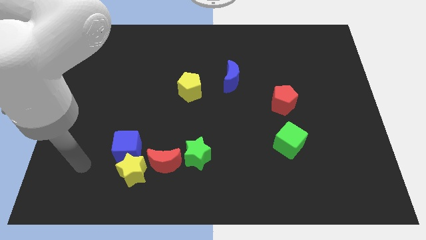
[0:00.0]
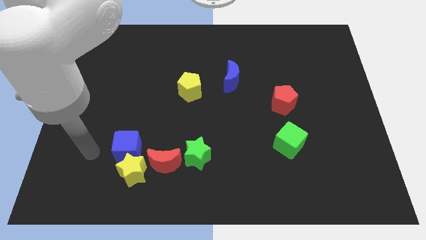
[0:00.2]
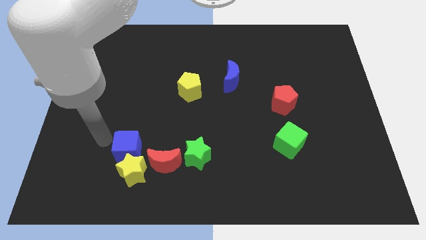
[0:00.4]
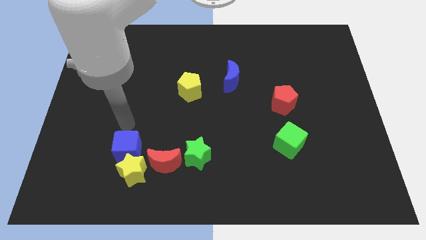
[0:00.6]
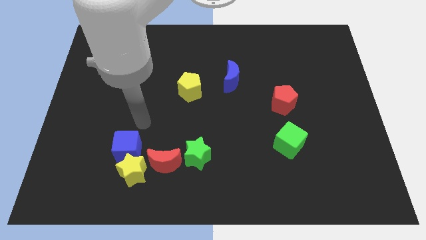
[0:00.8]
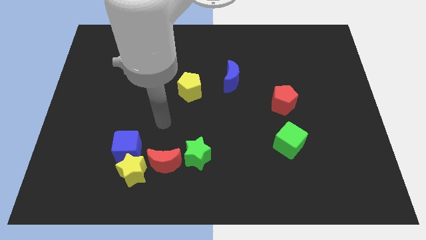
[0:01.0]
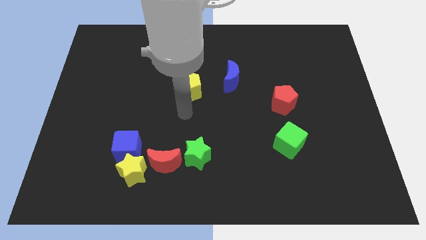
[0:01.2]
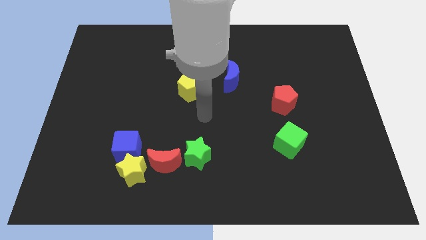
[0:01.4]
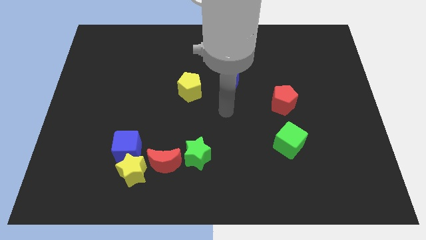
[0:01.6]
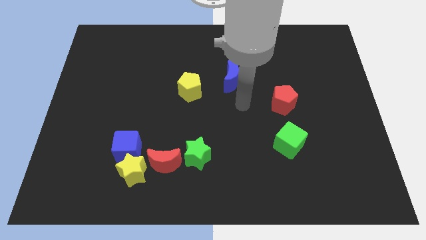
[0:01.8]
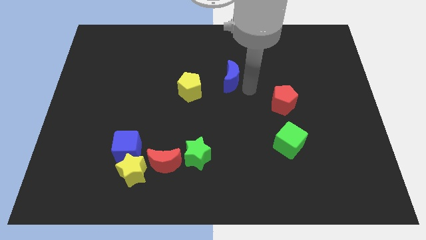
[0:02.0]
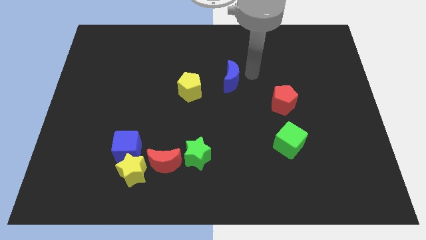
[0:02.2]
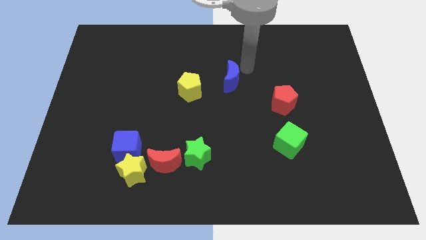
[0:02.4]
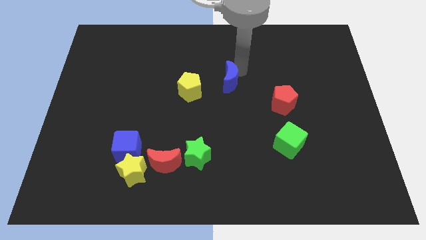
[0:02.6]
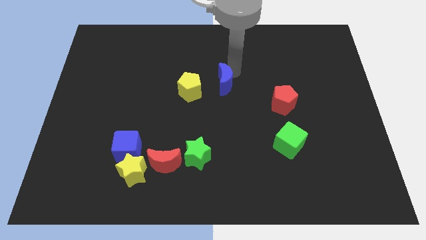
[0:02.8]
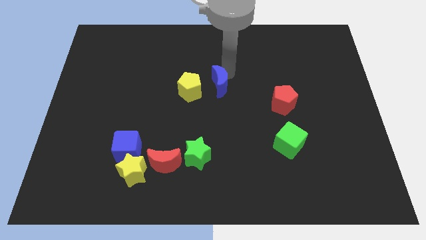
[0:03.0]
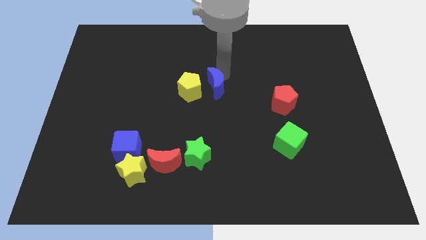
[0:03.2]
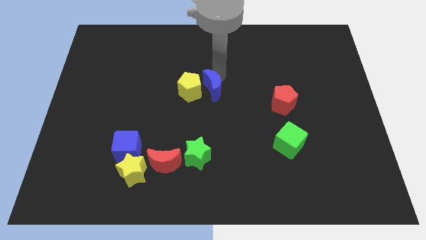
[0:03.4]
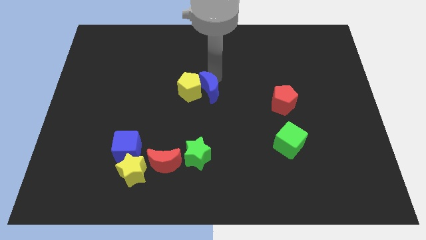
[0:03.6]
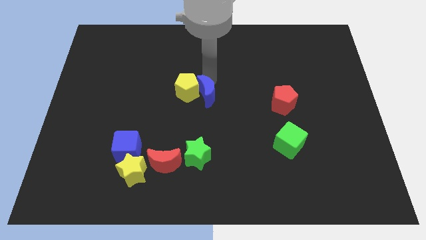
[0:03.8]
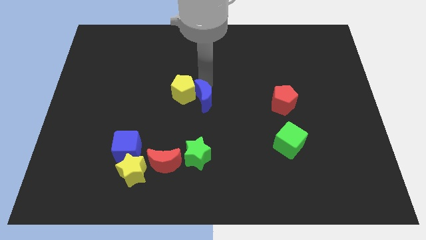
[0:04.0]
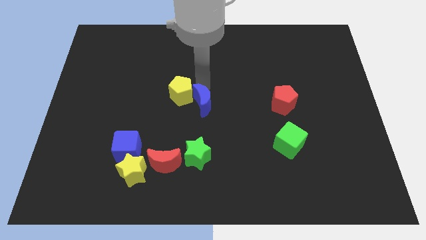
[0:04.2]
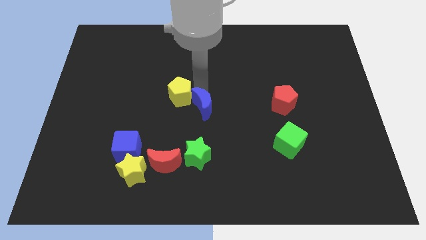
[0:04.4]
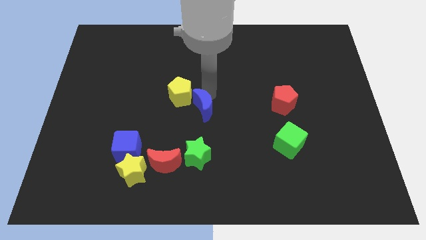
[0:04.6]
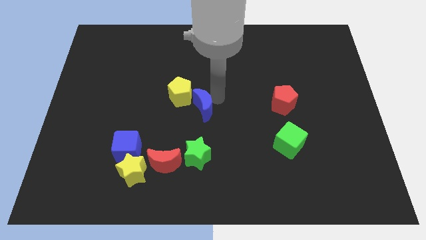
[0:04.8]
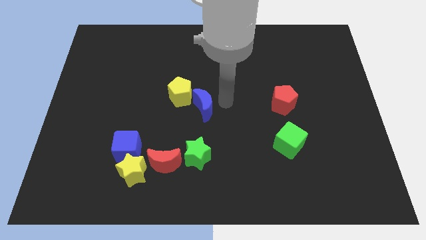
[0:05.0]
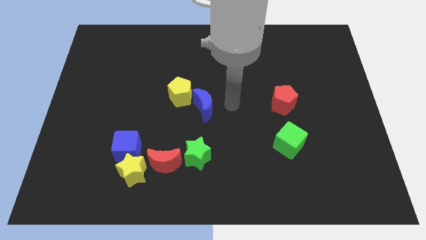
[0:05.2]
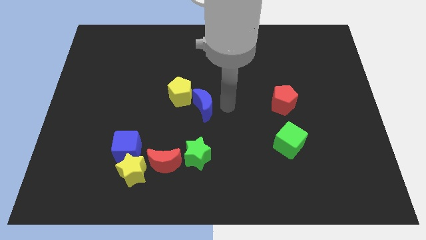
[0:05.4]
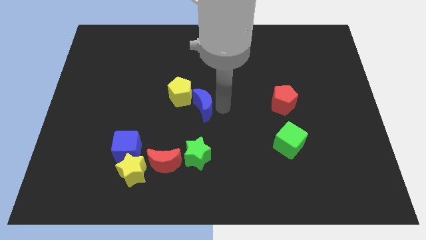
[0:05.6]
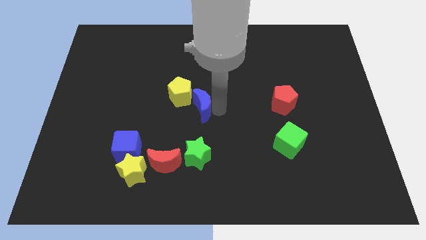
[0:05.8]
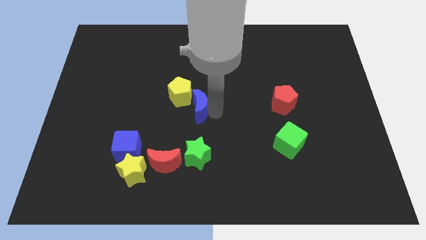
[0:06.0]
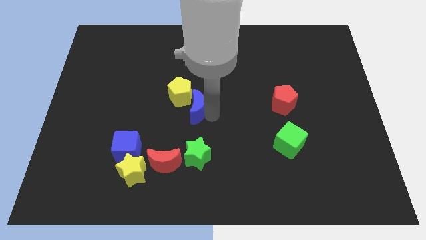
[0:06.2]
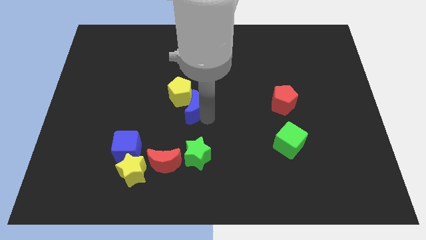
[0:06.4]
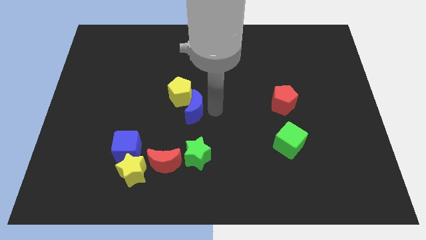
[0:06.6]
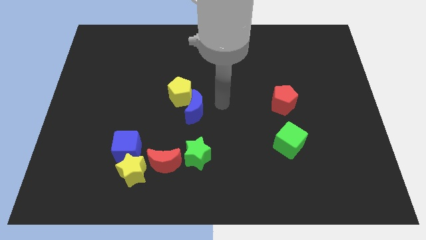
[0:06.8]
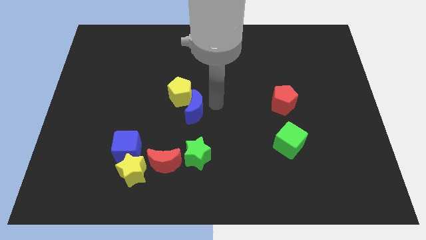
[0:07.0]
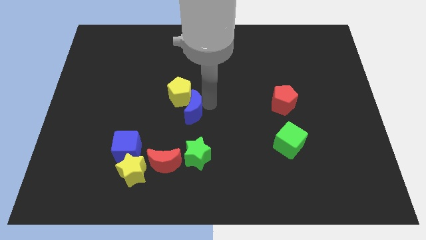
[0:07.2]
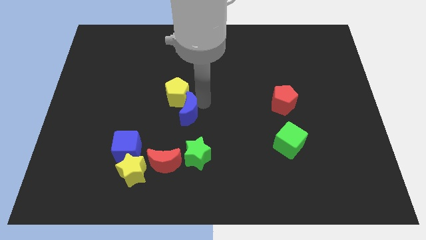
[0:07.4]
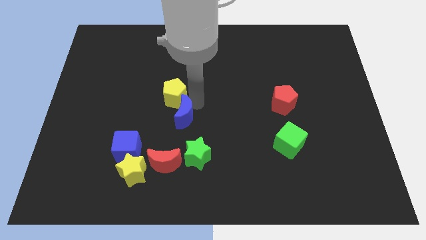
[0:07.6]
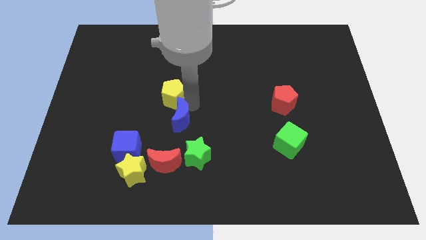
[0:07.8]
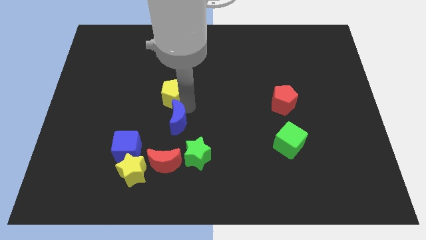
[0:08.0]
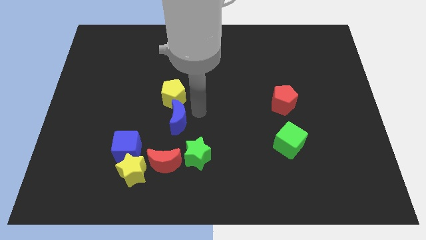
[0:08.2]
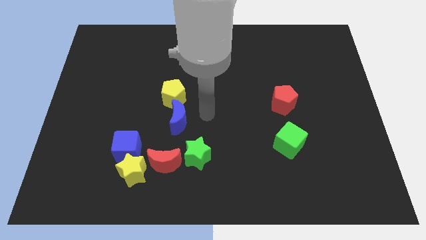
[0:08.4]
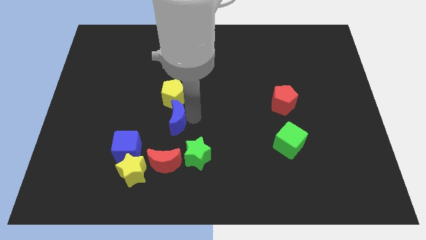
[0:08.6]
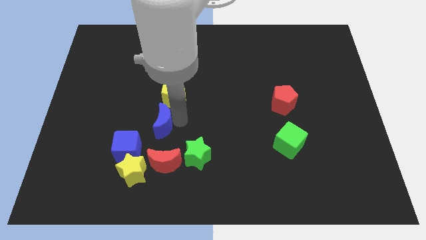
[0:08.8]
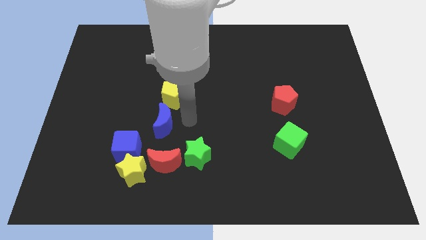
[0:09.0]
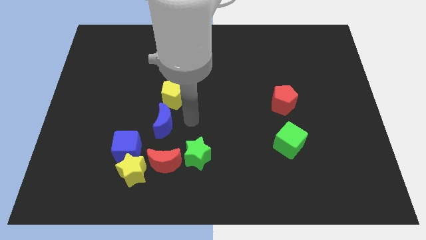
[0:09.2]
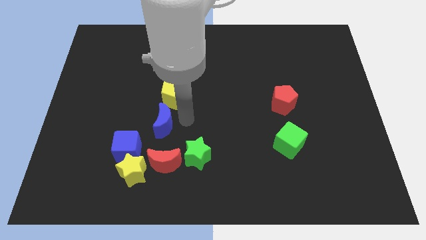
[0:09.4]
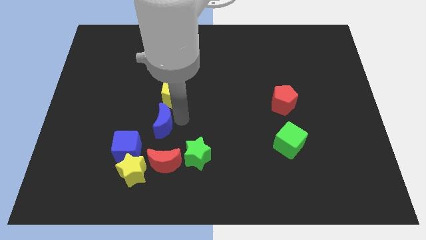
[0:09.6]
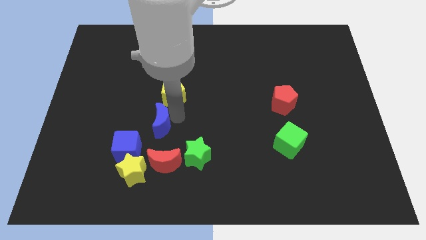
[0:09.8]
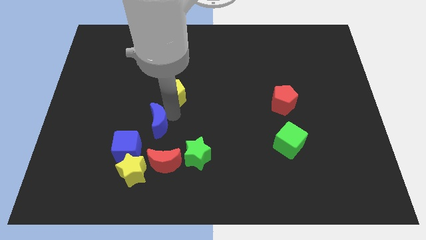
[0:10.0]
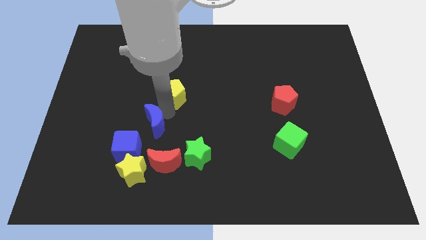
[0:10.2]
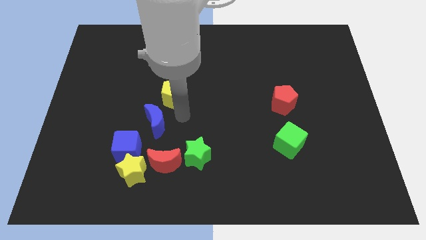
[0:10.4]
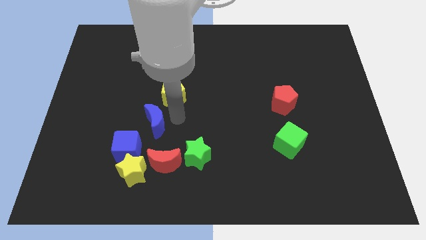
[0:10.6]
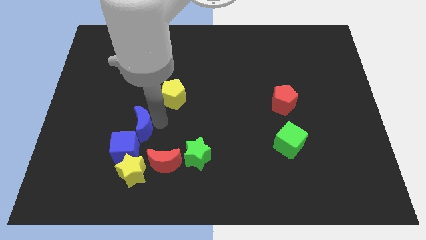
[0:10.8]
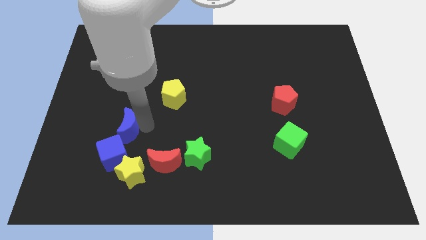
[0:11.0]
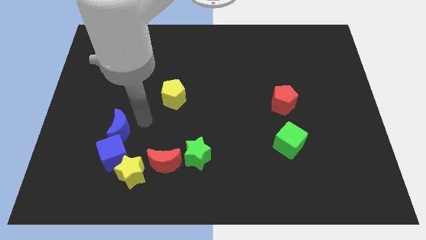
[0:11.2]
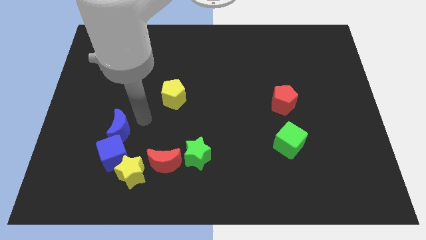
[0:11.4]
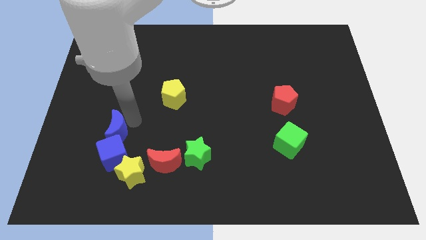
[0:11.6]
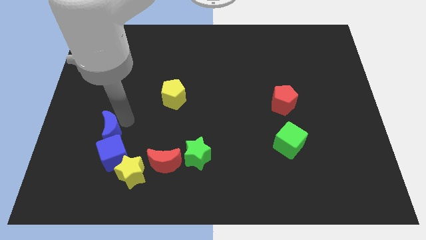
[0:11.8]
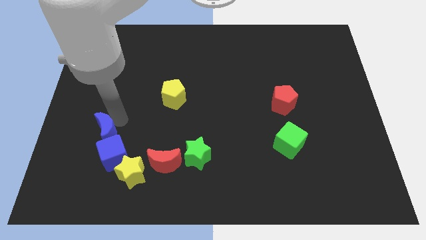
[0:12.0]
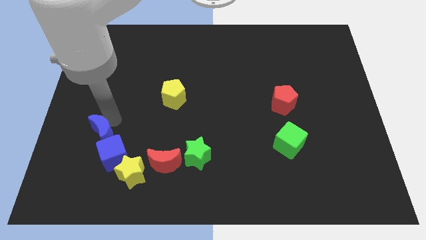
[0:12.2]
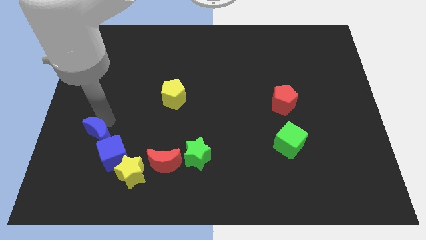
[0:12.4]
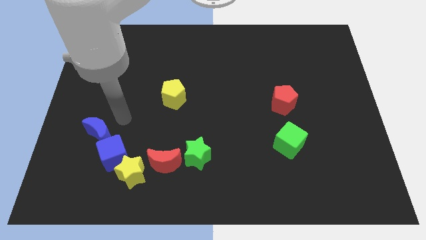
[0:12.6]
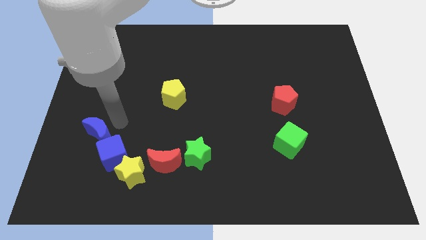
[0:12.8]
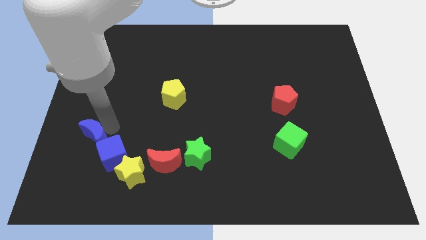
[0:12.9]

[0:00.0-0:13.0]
slide the blue moon to the left side of the blue cube
